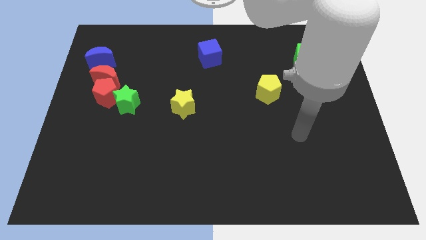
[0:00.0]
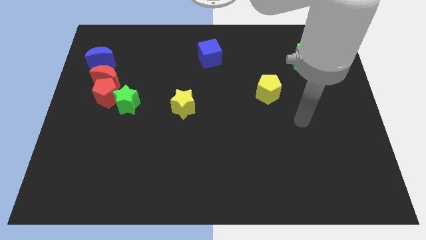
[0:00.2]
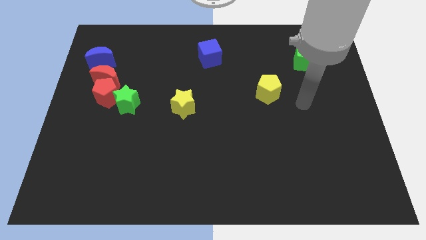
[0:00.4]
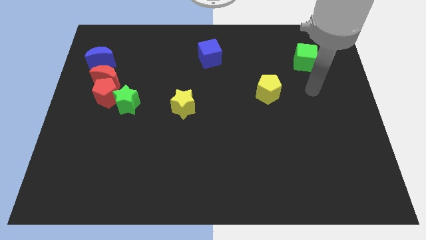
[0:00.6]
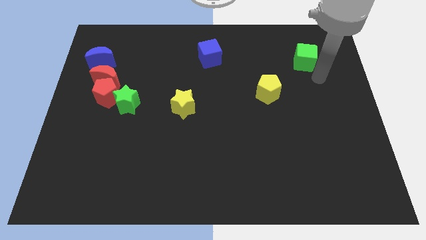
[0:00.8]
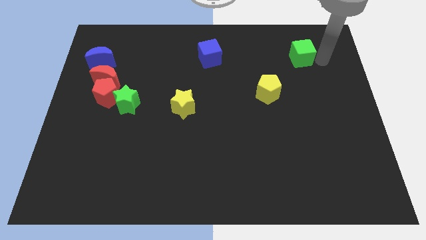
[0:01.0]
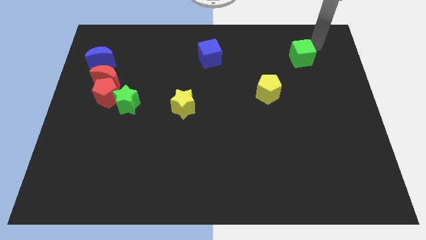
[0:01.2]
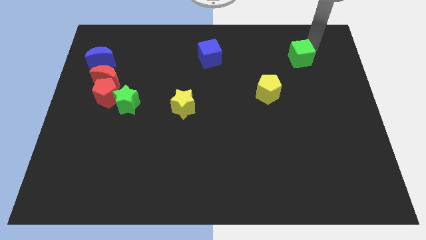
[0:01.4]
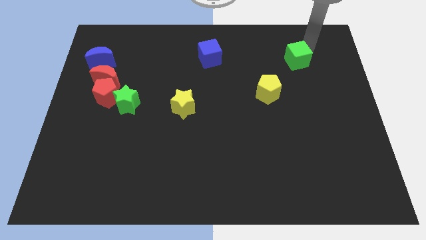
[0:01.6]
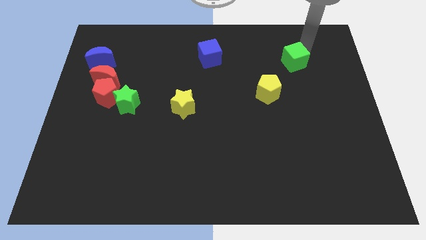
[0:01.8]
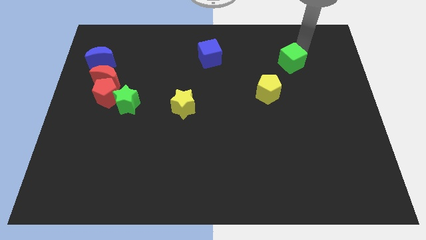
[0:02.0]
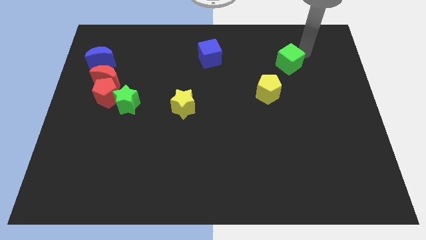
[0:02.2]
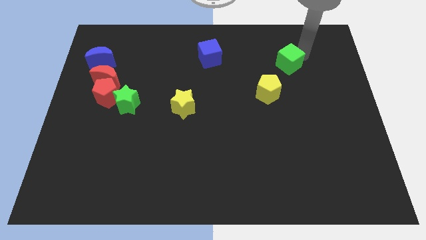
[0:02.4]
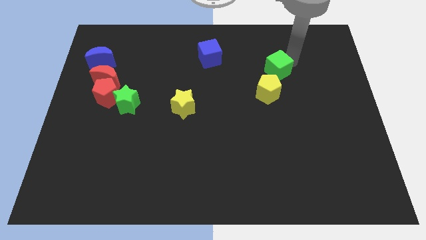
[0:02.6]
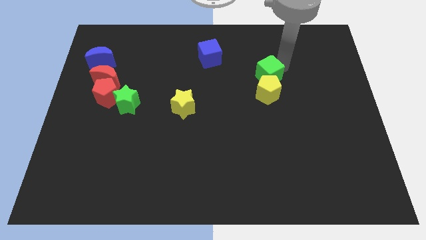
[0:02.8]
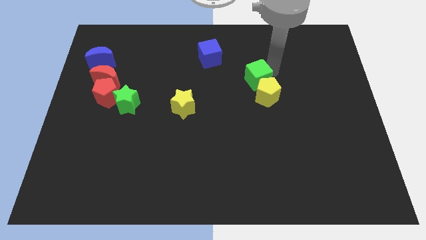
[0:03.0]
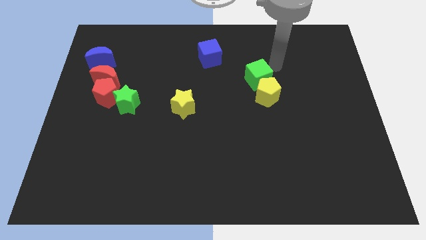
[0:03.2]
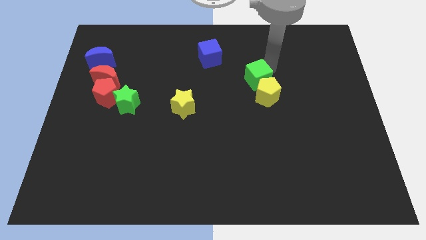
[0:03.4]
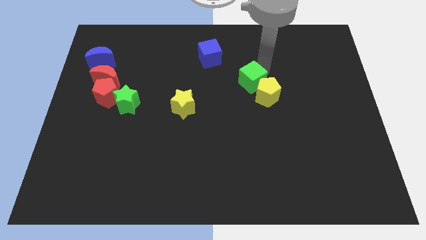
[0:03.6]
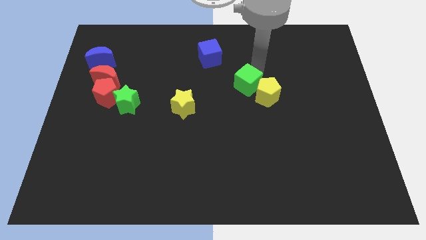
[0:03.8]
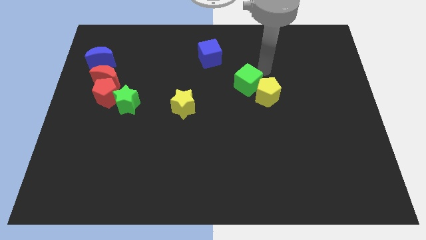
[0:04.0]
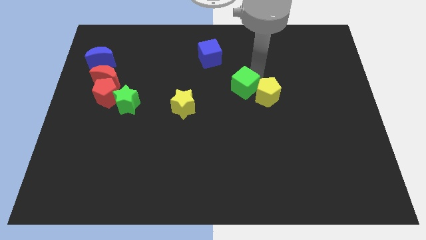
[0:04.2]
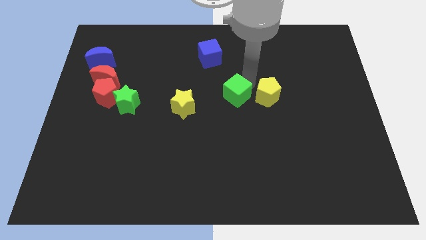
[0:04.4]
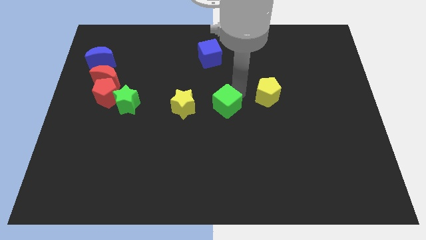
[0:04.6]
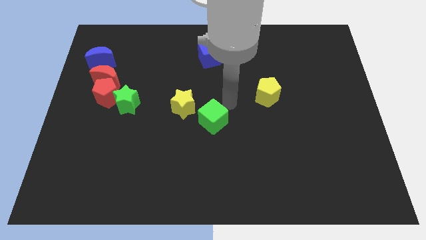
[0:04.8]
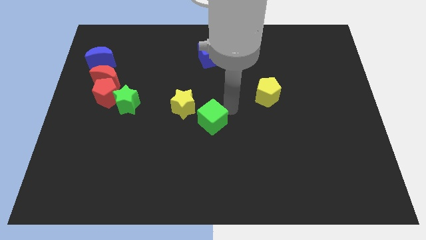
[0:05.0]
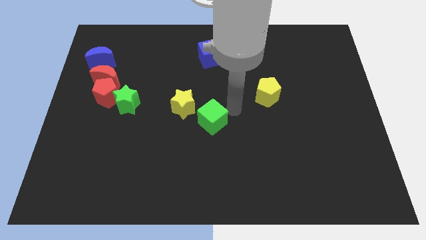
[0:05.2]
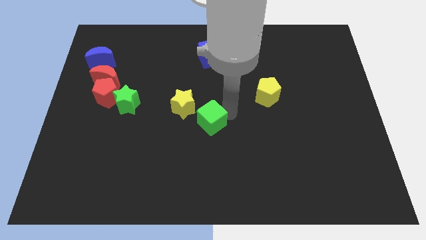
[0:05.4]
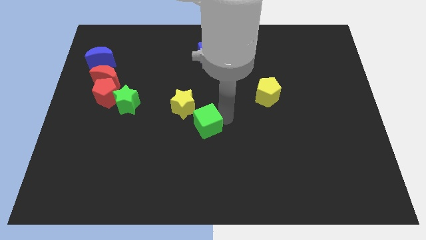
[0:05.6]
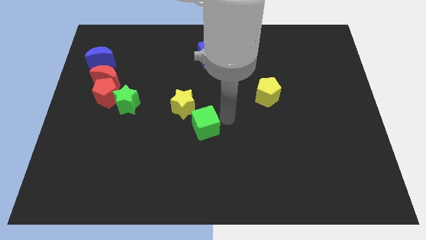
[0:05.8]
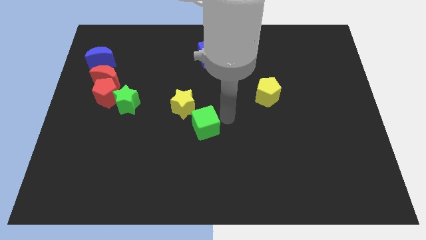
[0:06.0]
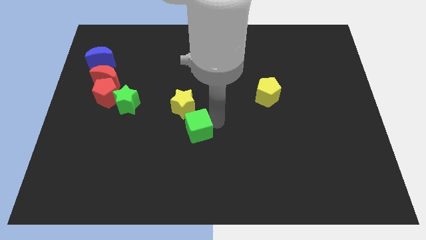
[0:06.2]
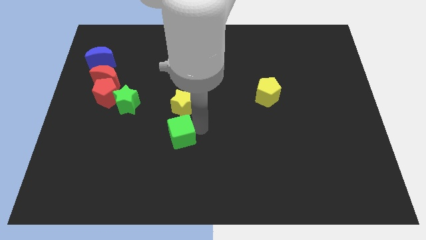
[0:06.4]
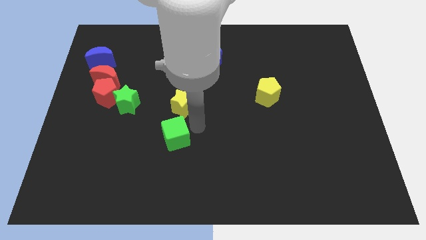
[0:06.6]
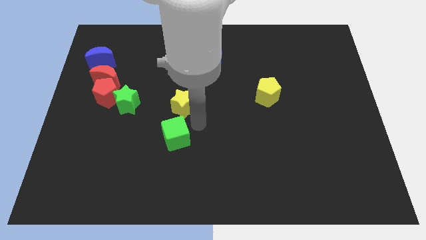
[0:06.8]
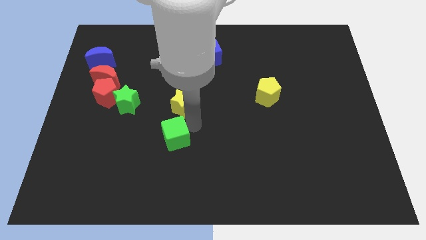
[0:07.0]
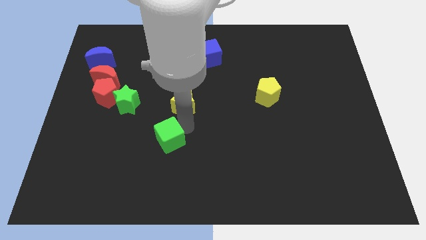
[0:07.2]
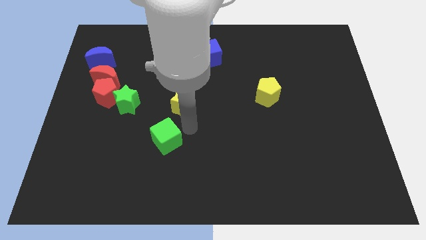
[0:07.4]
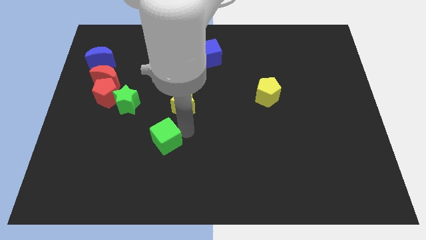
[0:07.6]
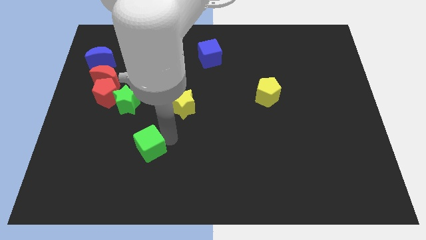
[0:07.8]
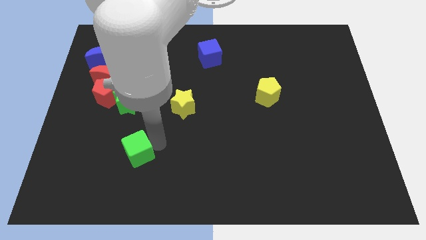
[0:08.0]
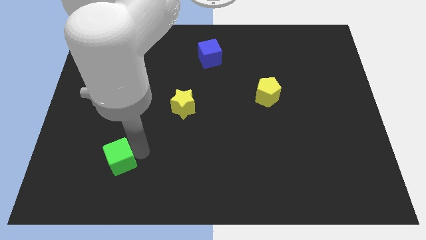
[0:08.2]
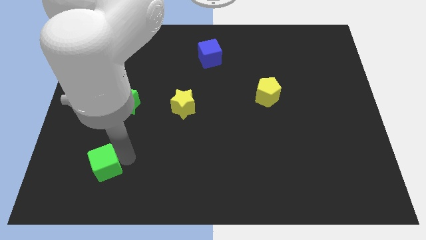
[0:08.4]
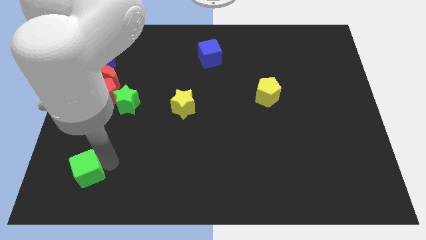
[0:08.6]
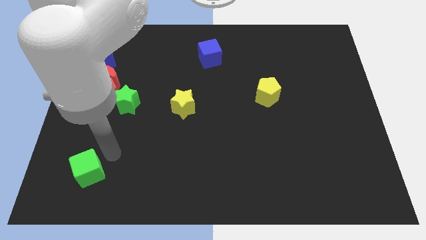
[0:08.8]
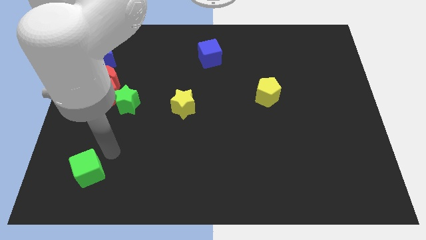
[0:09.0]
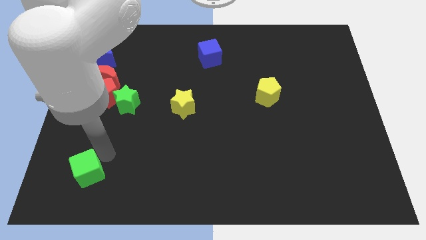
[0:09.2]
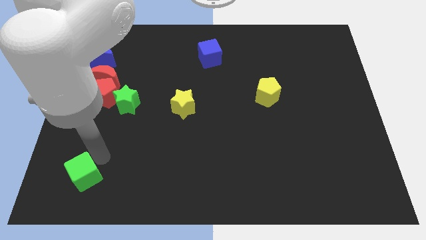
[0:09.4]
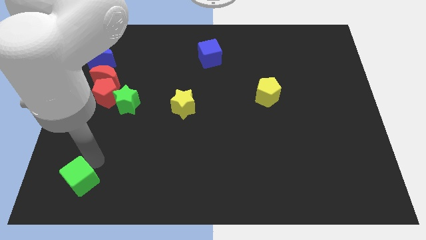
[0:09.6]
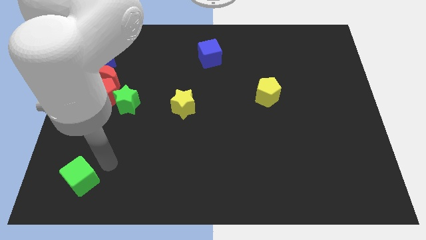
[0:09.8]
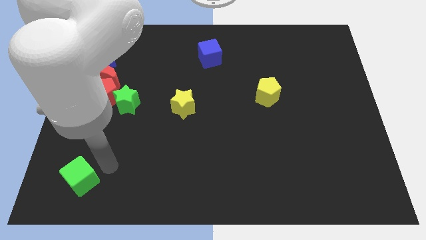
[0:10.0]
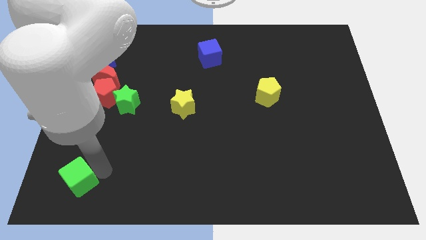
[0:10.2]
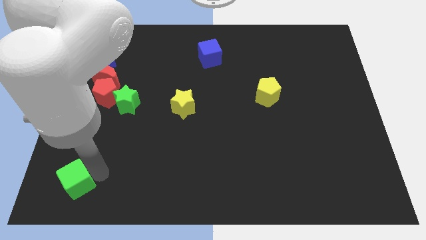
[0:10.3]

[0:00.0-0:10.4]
put the green cube to the lower left corner
